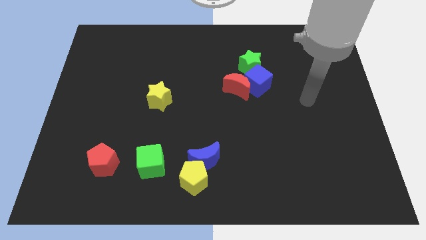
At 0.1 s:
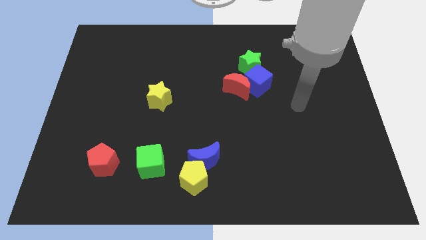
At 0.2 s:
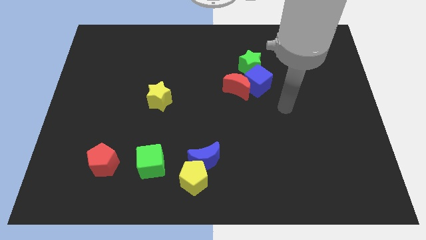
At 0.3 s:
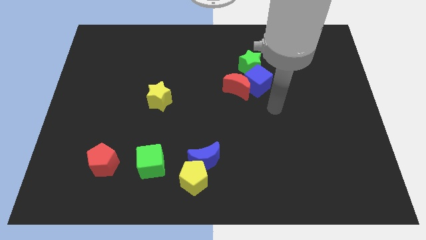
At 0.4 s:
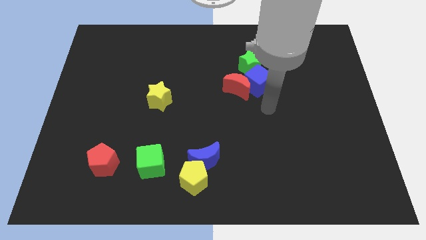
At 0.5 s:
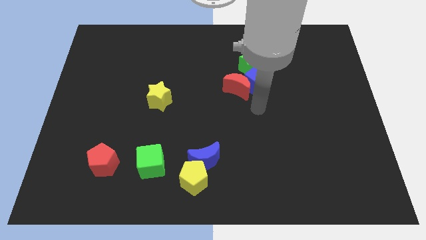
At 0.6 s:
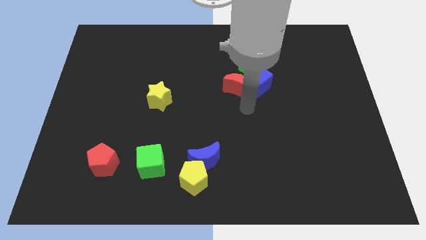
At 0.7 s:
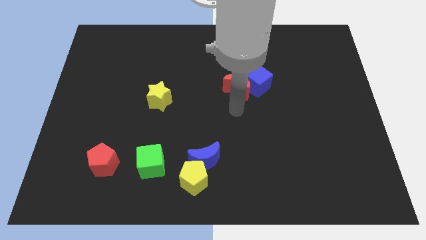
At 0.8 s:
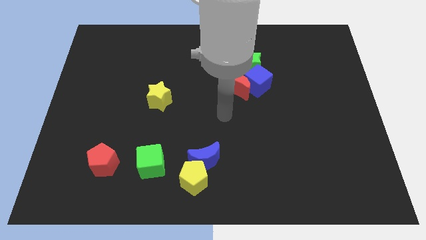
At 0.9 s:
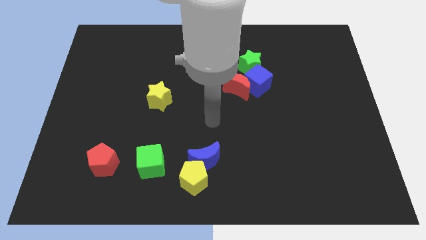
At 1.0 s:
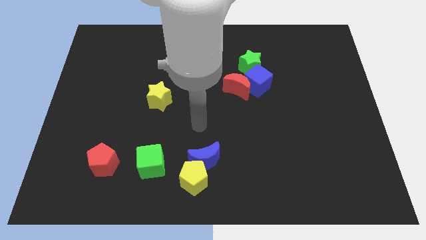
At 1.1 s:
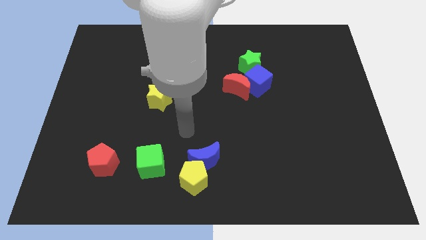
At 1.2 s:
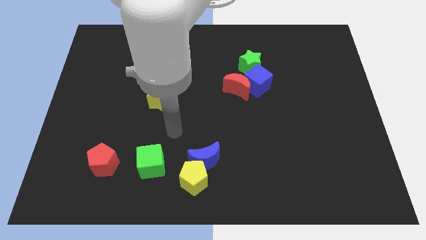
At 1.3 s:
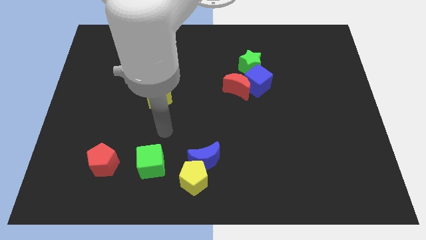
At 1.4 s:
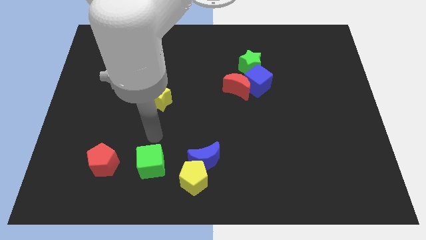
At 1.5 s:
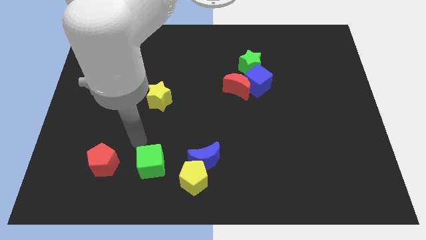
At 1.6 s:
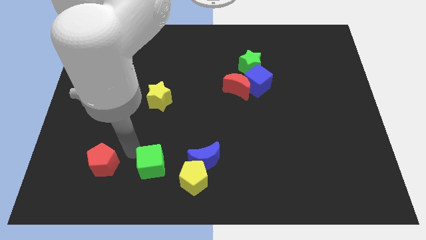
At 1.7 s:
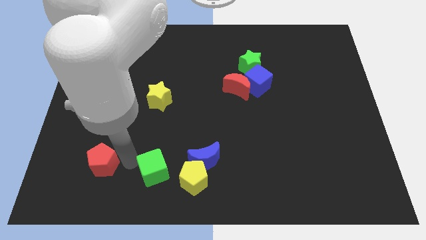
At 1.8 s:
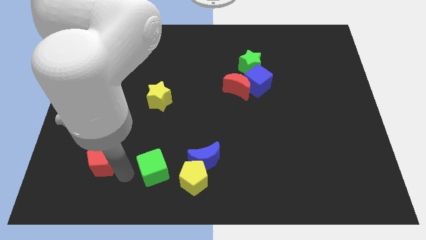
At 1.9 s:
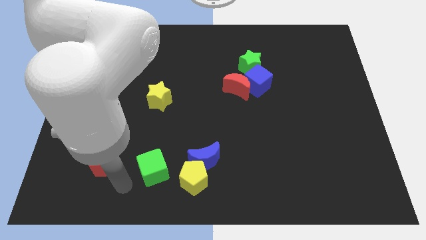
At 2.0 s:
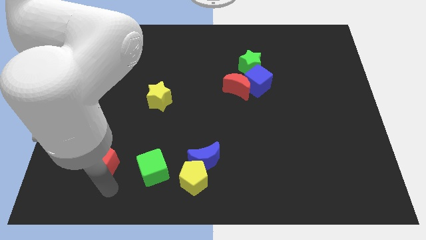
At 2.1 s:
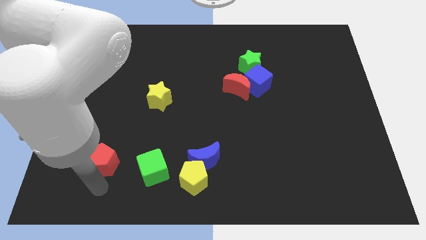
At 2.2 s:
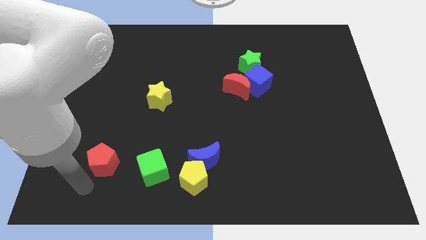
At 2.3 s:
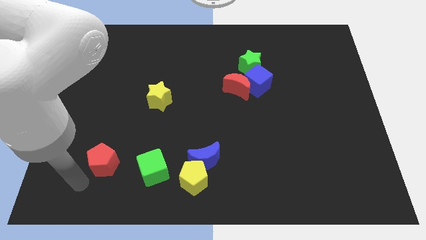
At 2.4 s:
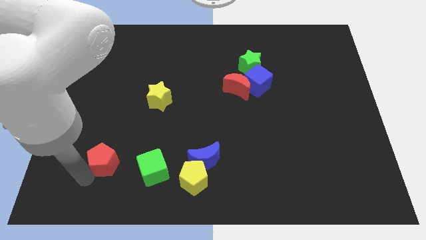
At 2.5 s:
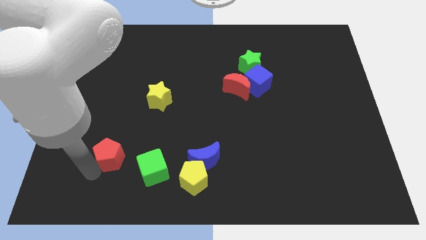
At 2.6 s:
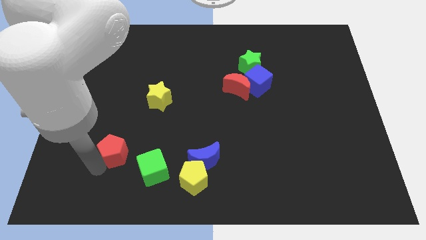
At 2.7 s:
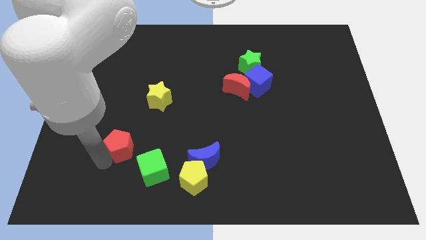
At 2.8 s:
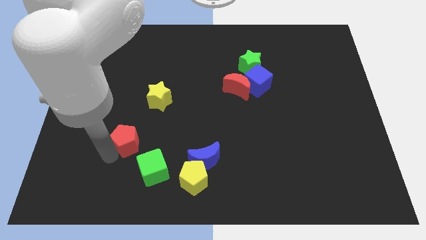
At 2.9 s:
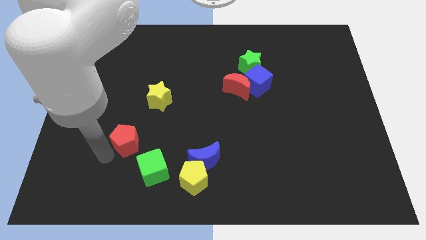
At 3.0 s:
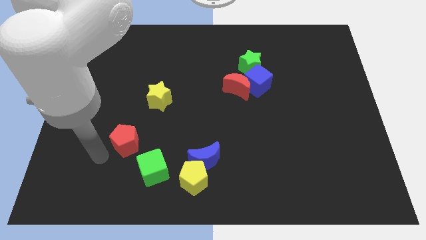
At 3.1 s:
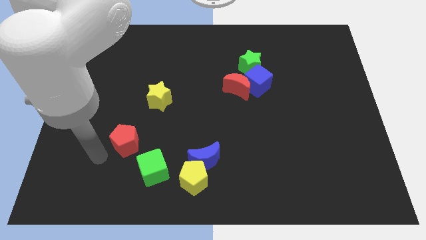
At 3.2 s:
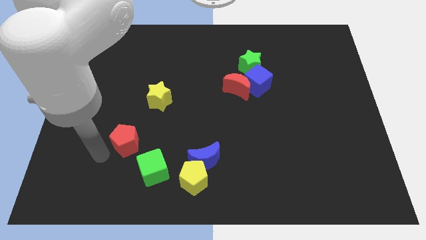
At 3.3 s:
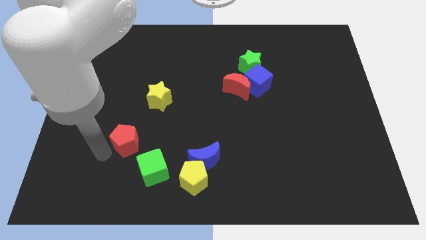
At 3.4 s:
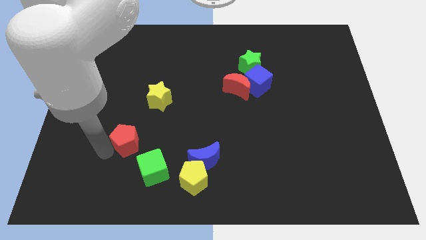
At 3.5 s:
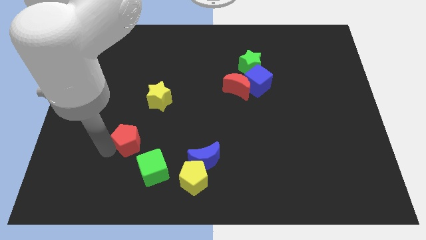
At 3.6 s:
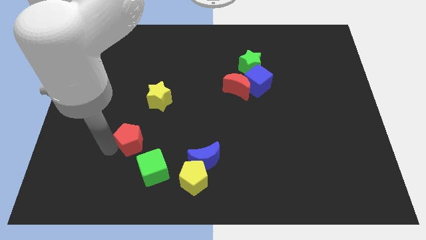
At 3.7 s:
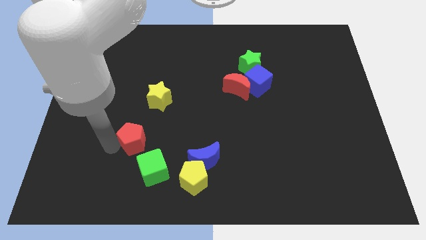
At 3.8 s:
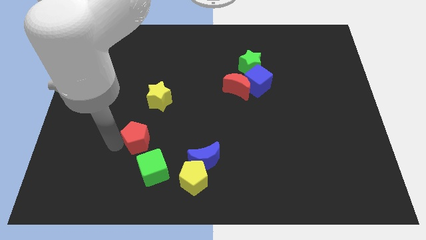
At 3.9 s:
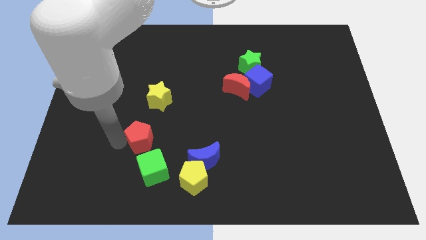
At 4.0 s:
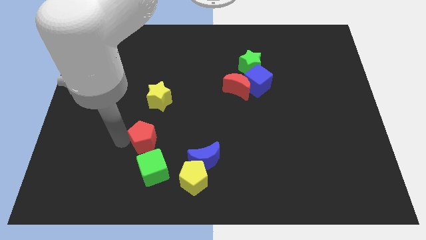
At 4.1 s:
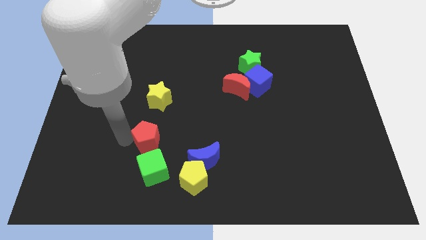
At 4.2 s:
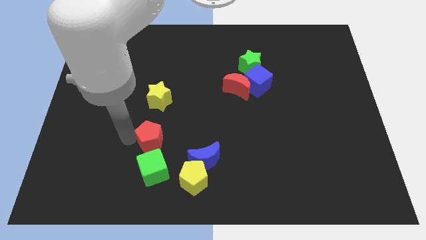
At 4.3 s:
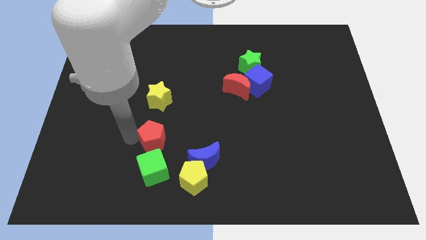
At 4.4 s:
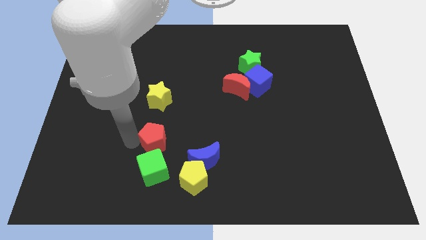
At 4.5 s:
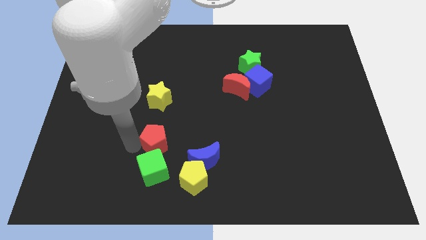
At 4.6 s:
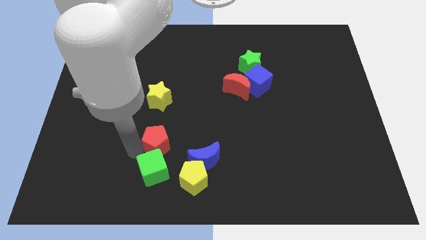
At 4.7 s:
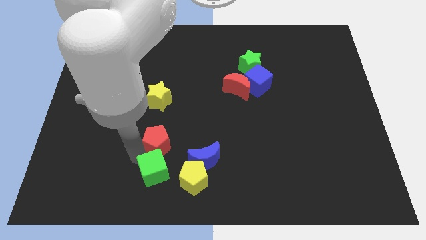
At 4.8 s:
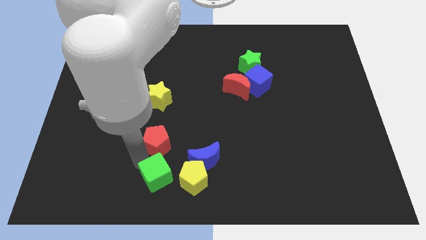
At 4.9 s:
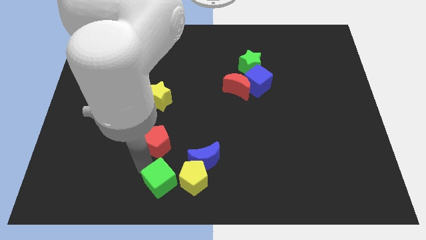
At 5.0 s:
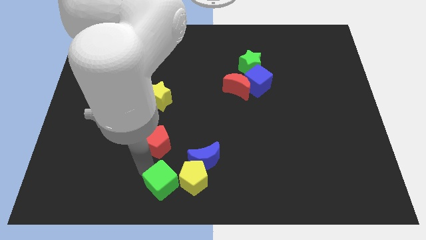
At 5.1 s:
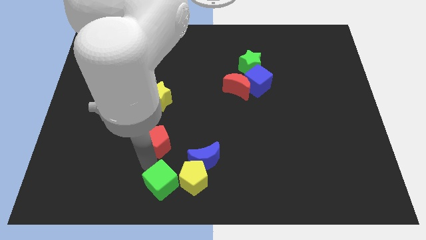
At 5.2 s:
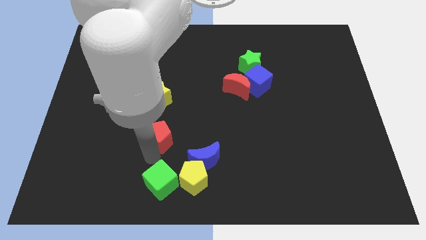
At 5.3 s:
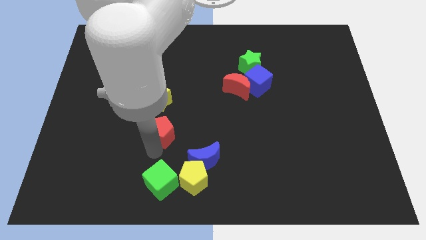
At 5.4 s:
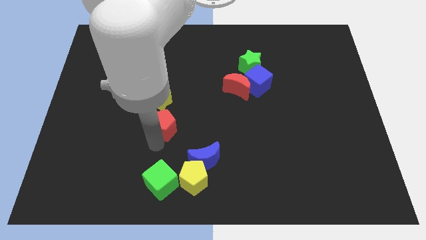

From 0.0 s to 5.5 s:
push the red pentagon to the bottom right of the yellow star

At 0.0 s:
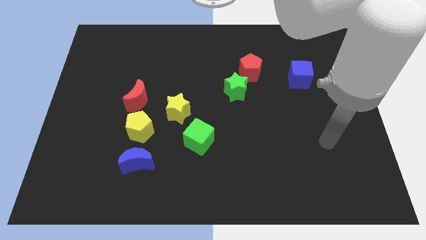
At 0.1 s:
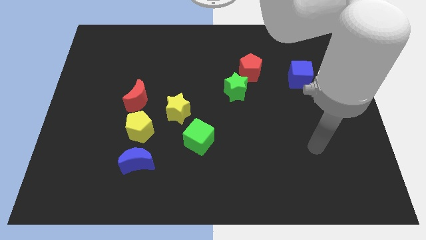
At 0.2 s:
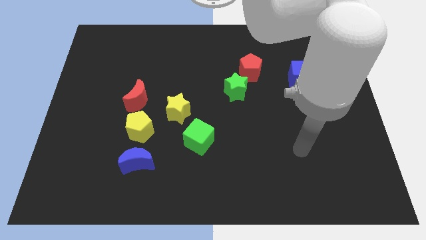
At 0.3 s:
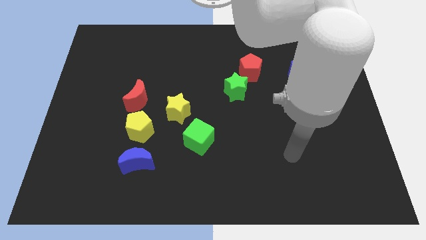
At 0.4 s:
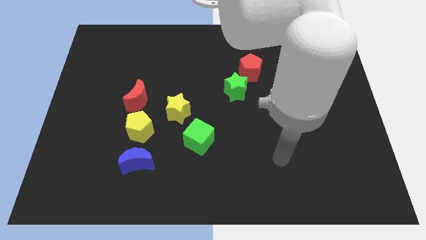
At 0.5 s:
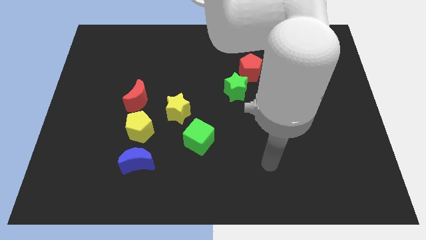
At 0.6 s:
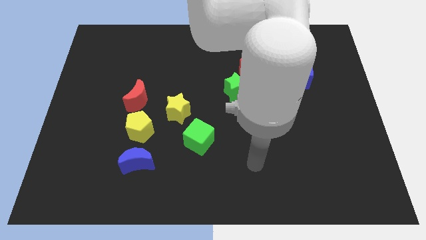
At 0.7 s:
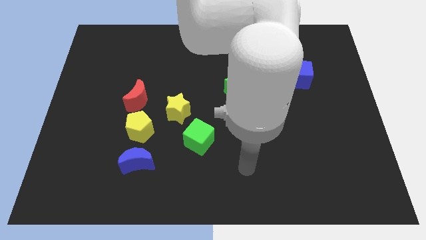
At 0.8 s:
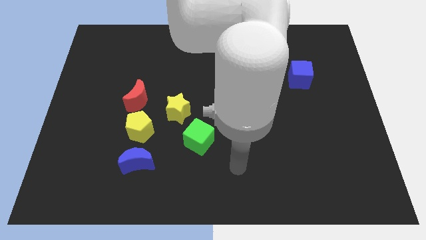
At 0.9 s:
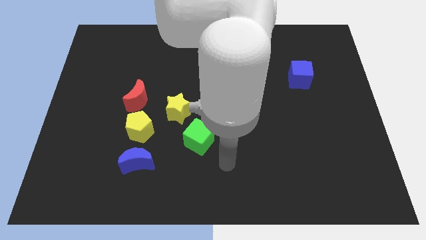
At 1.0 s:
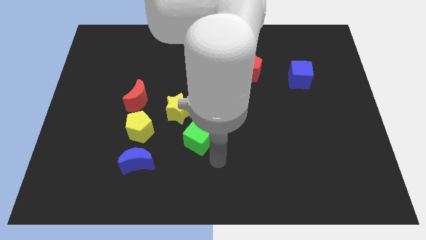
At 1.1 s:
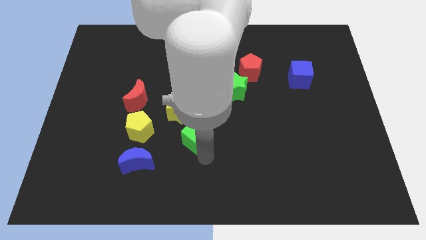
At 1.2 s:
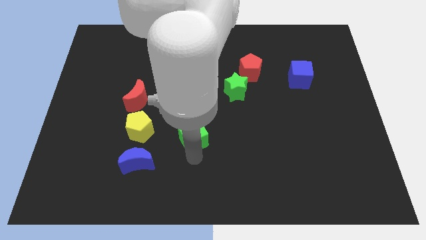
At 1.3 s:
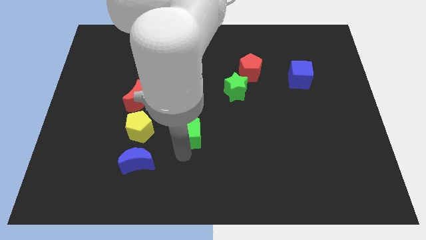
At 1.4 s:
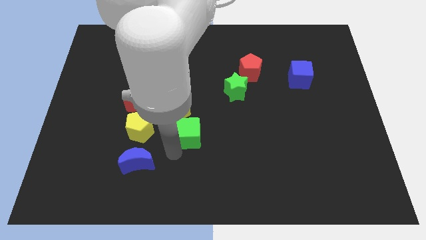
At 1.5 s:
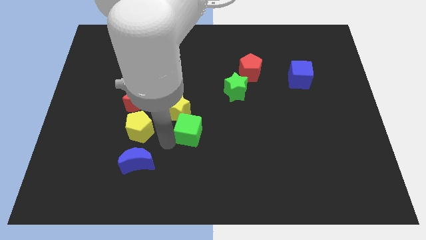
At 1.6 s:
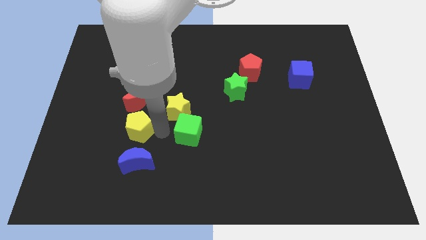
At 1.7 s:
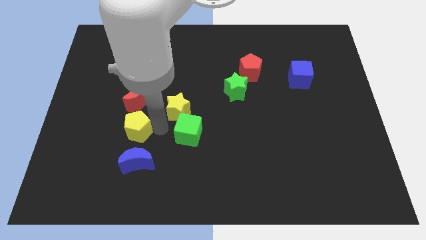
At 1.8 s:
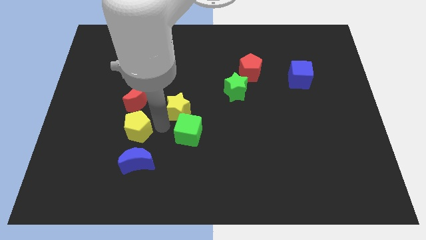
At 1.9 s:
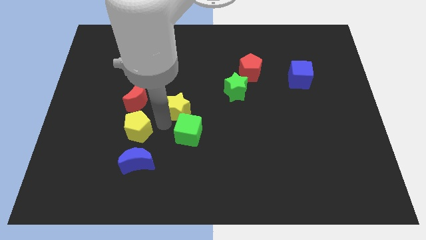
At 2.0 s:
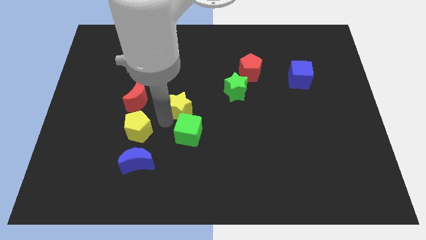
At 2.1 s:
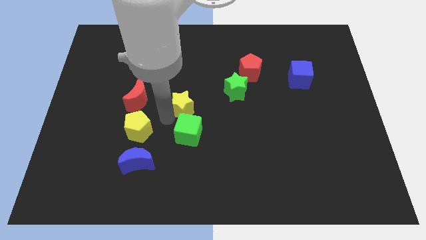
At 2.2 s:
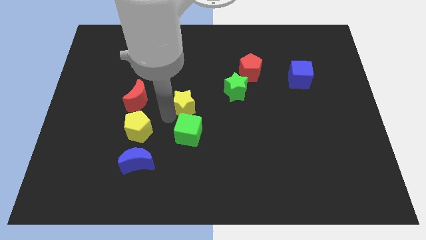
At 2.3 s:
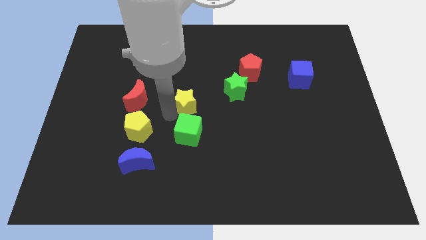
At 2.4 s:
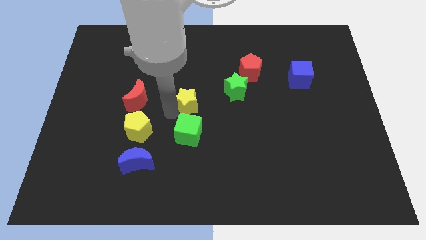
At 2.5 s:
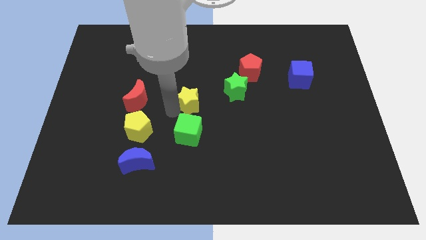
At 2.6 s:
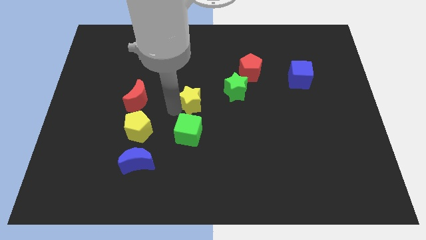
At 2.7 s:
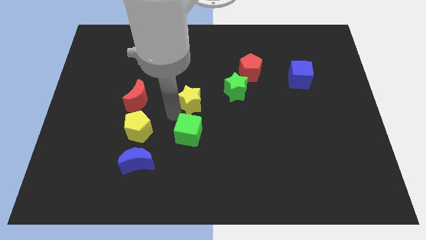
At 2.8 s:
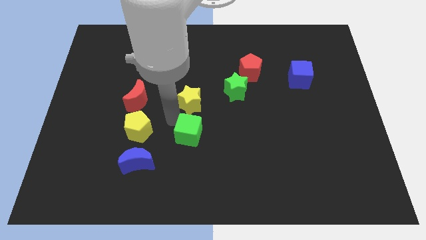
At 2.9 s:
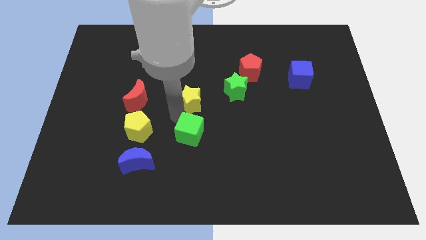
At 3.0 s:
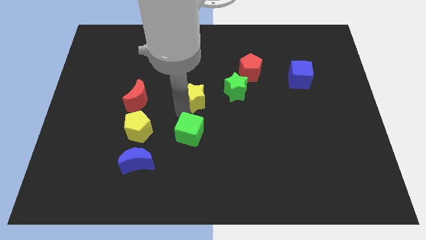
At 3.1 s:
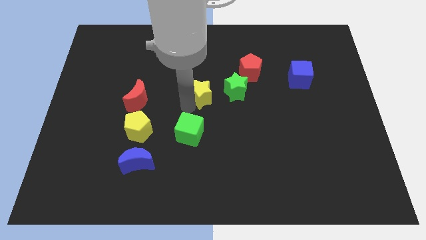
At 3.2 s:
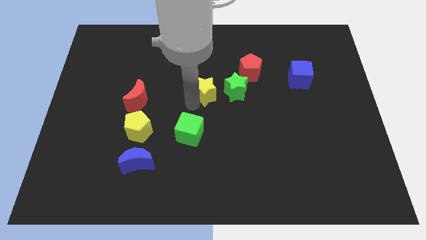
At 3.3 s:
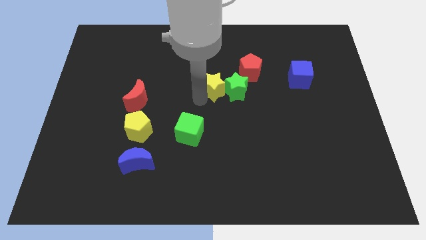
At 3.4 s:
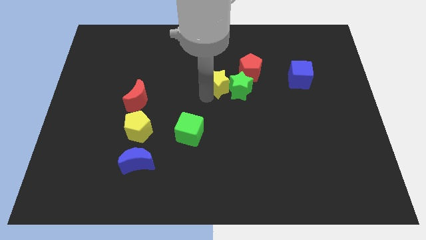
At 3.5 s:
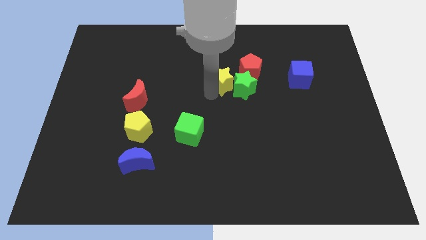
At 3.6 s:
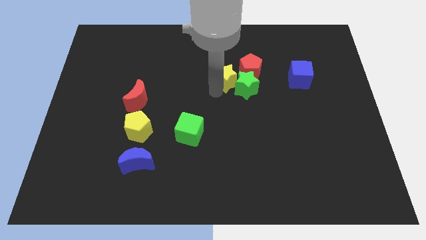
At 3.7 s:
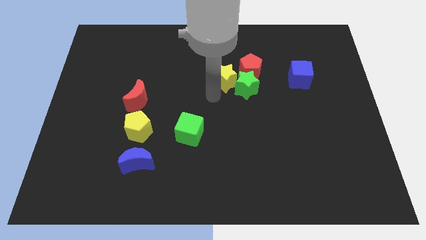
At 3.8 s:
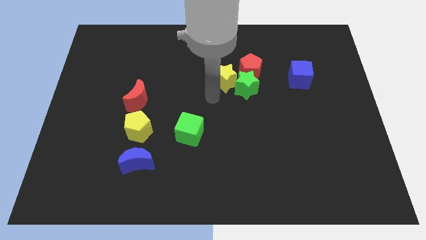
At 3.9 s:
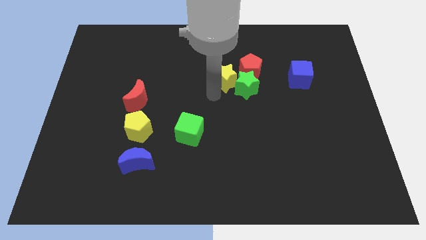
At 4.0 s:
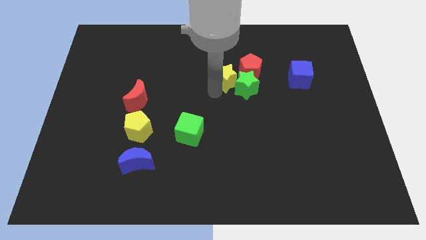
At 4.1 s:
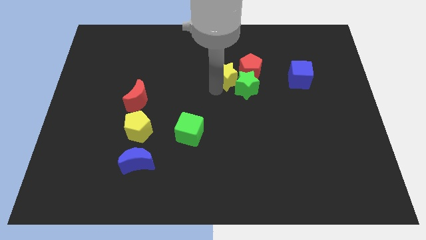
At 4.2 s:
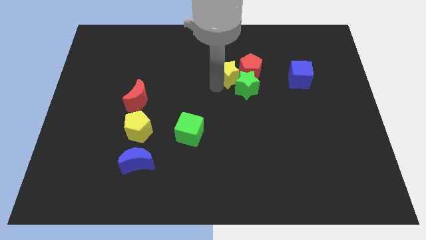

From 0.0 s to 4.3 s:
push the yellow star to the top side of the green star
